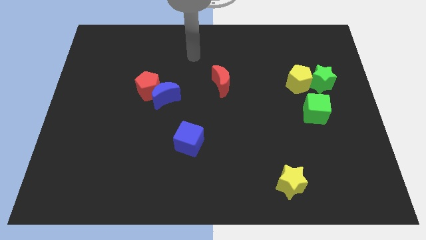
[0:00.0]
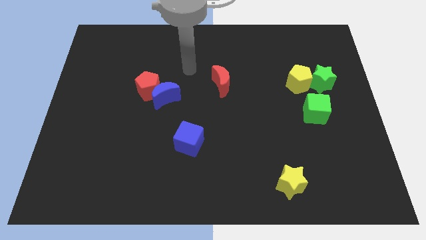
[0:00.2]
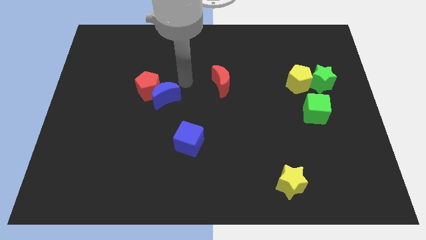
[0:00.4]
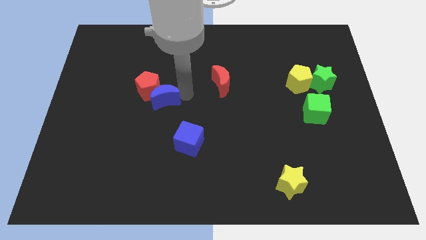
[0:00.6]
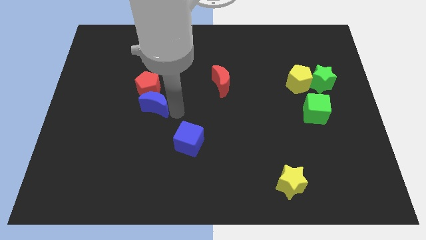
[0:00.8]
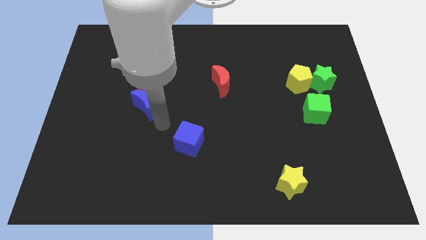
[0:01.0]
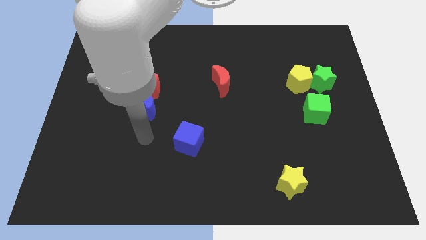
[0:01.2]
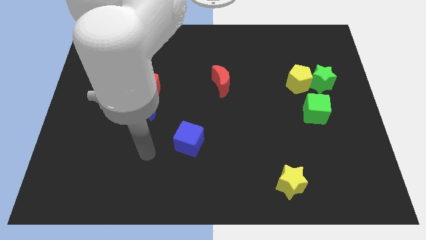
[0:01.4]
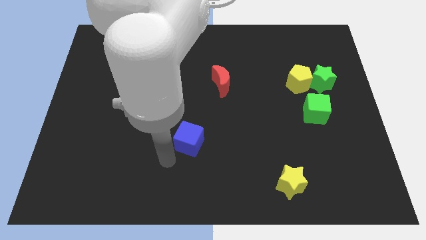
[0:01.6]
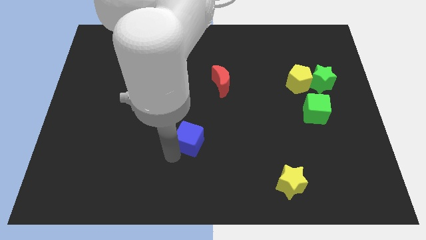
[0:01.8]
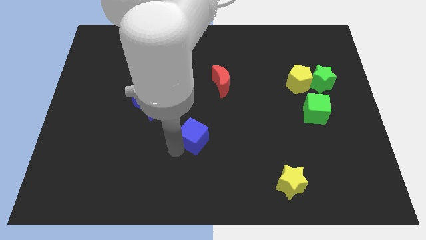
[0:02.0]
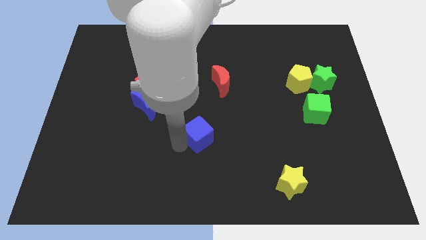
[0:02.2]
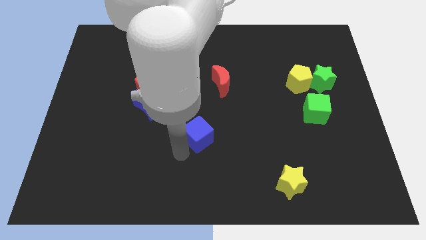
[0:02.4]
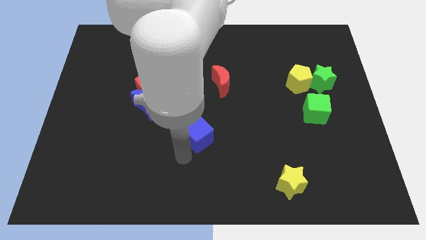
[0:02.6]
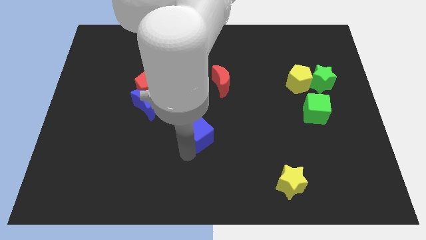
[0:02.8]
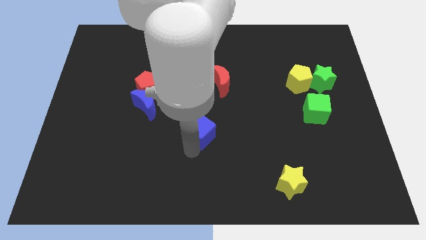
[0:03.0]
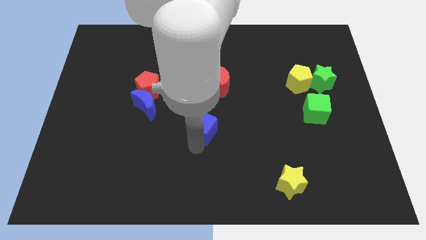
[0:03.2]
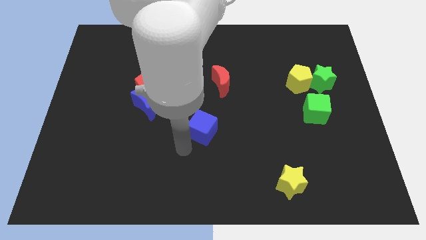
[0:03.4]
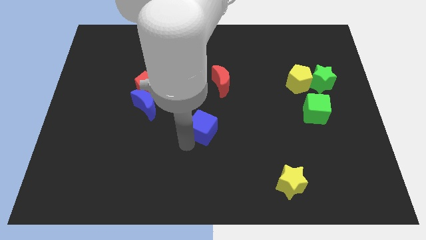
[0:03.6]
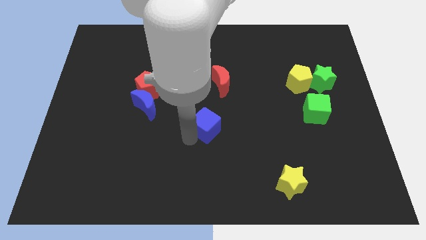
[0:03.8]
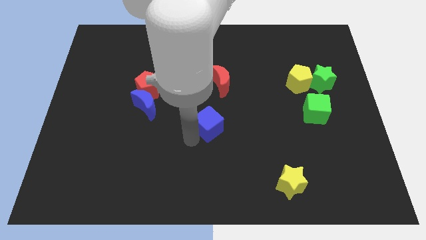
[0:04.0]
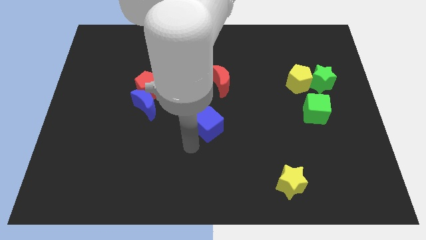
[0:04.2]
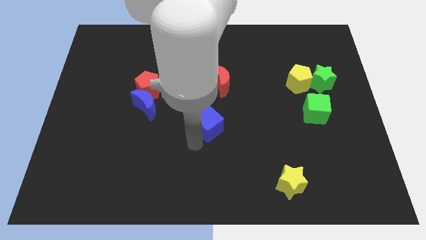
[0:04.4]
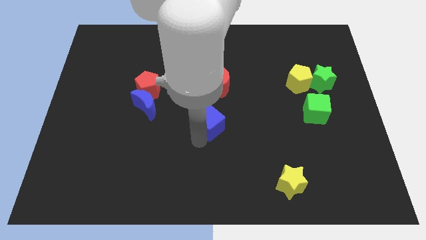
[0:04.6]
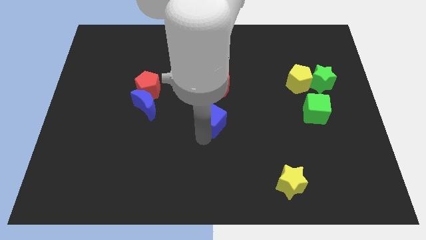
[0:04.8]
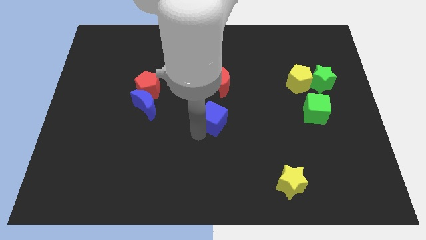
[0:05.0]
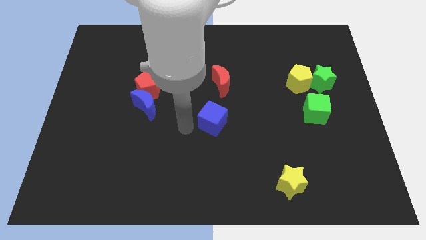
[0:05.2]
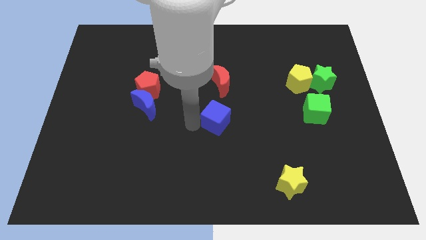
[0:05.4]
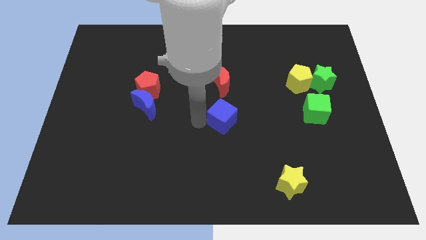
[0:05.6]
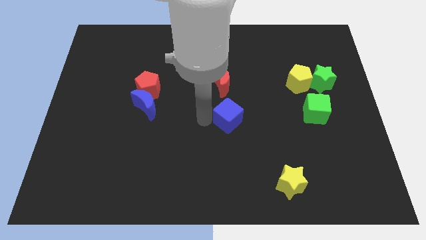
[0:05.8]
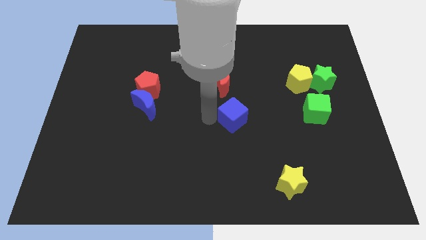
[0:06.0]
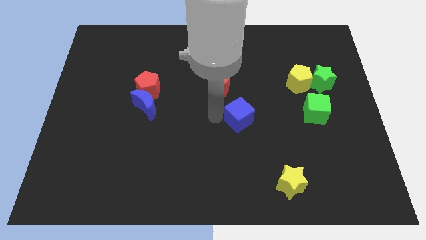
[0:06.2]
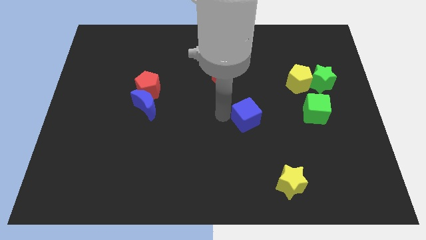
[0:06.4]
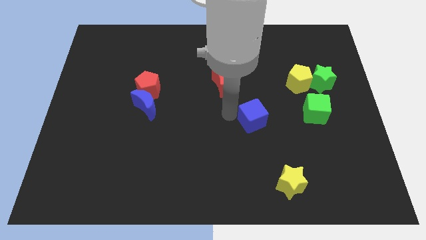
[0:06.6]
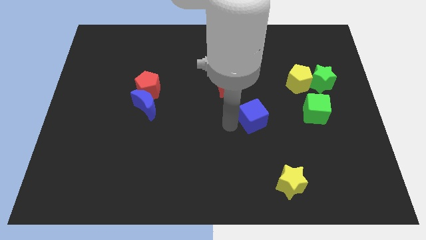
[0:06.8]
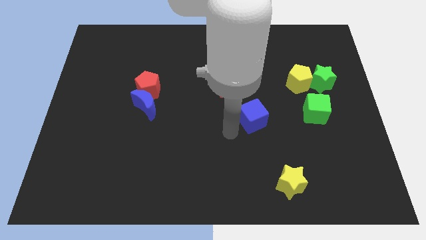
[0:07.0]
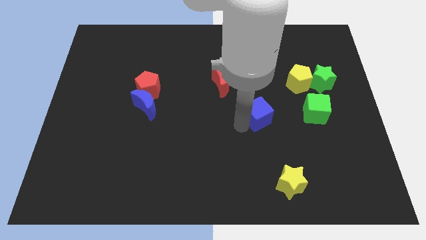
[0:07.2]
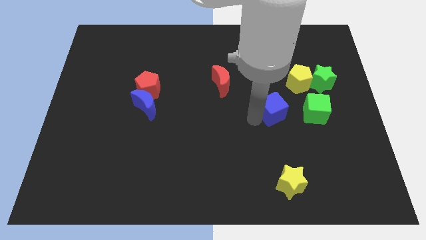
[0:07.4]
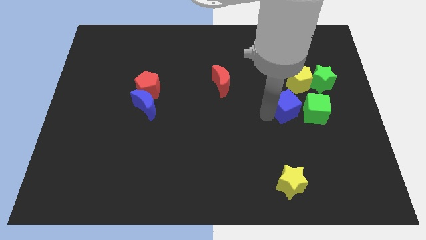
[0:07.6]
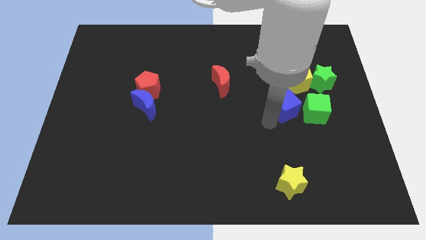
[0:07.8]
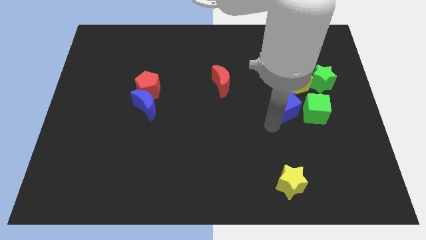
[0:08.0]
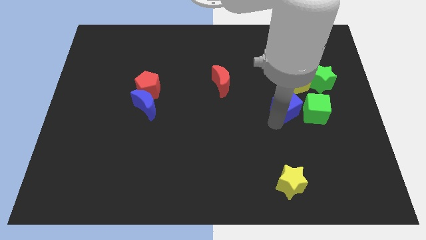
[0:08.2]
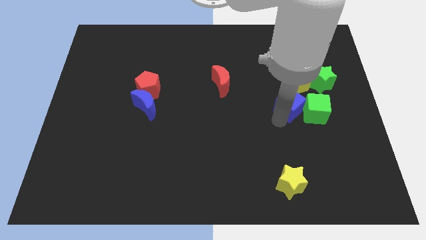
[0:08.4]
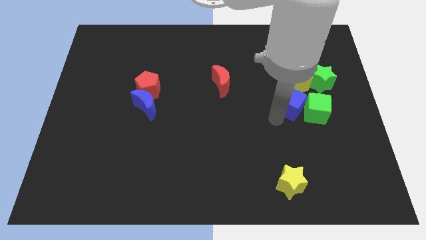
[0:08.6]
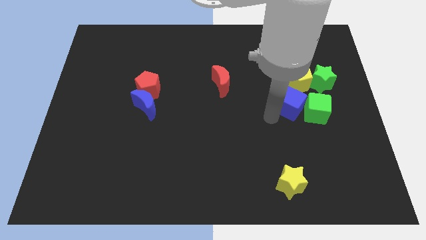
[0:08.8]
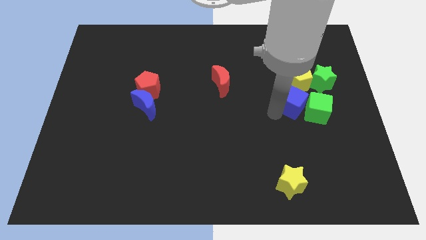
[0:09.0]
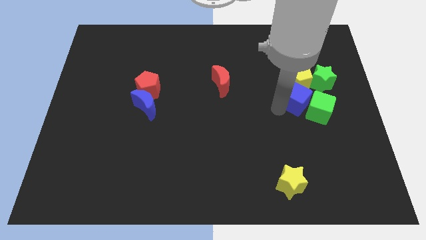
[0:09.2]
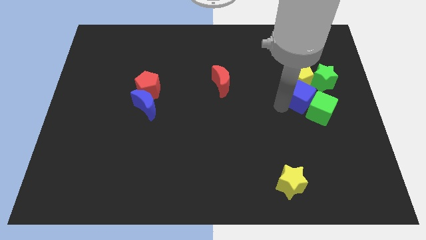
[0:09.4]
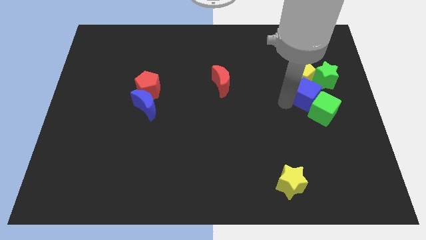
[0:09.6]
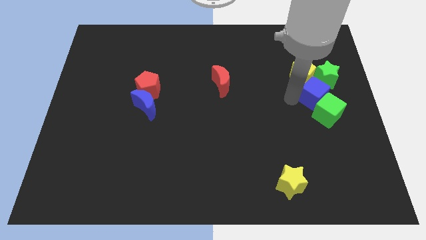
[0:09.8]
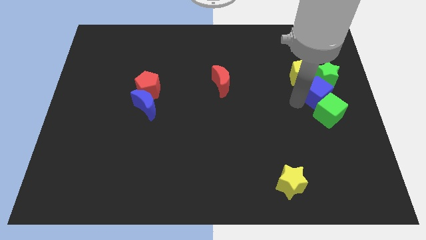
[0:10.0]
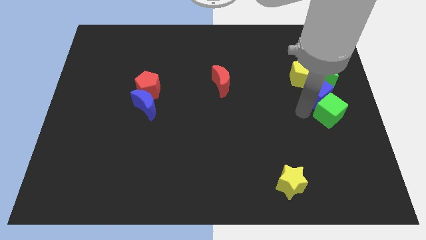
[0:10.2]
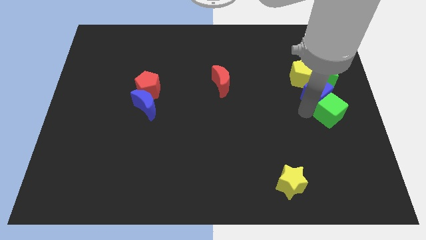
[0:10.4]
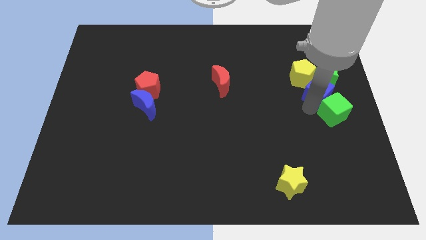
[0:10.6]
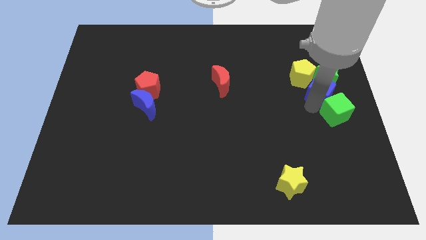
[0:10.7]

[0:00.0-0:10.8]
slide the blue cube to the green star

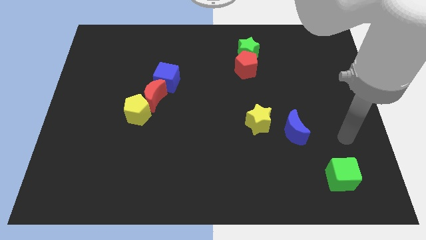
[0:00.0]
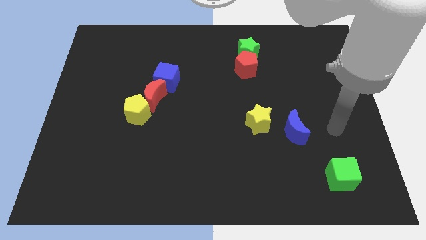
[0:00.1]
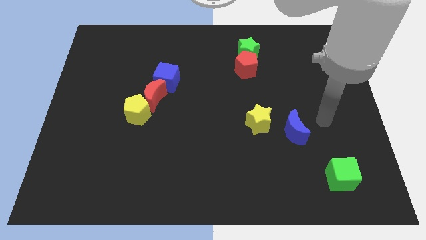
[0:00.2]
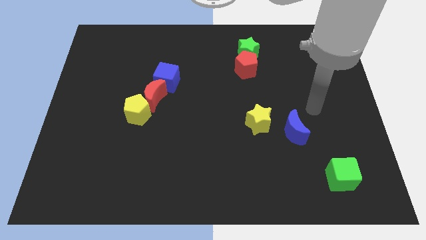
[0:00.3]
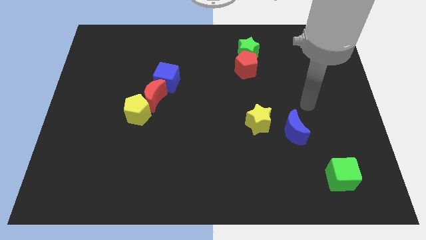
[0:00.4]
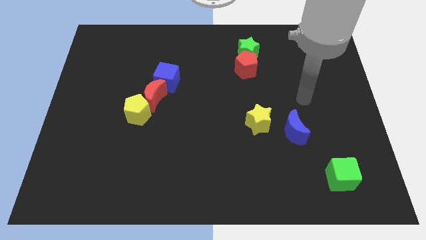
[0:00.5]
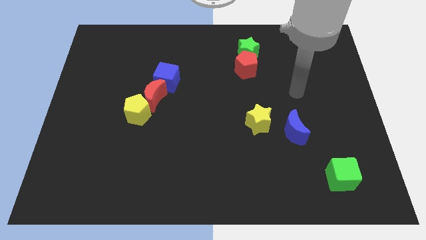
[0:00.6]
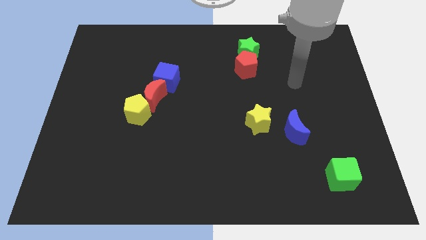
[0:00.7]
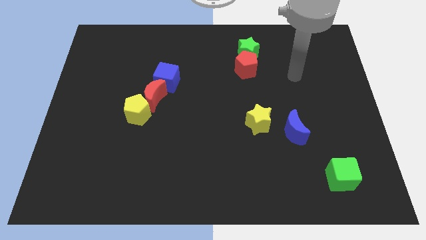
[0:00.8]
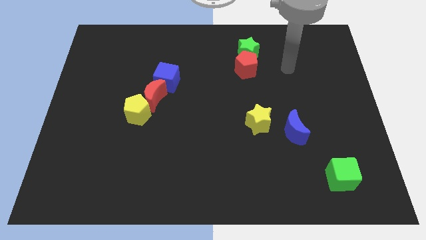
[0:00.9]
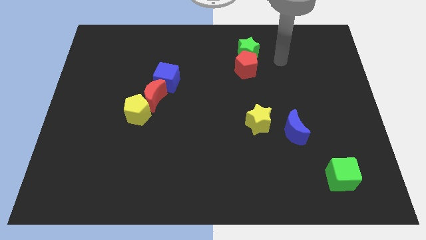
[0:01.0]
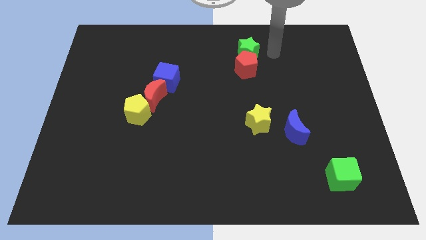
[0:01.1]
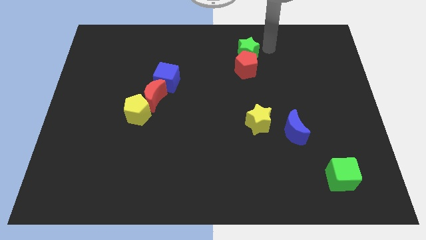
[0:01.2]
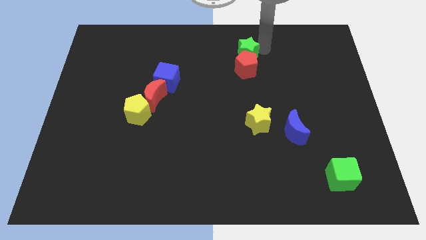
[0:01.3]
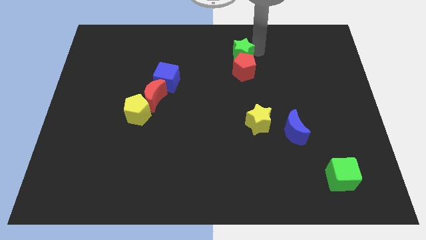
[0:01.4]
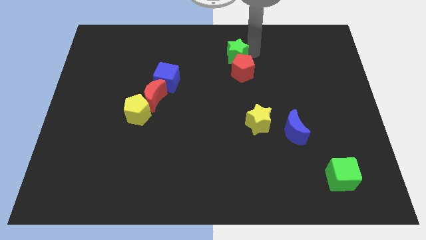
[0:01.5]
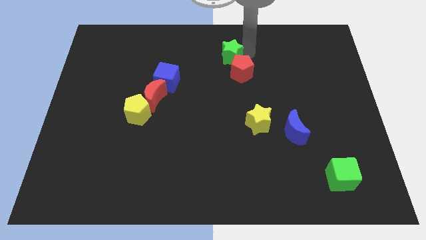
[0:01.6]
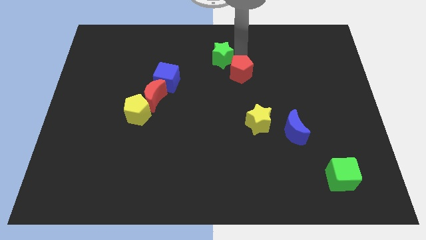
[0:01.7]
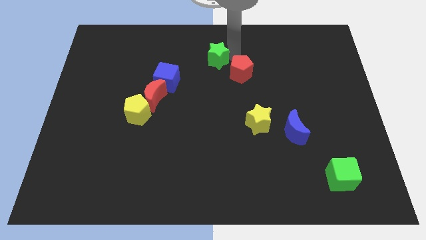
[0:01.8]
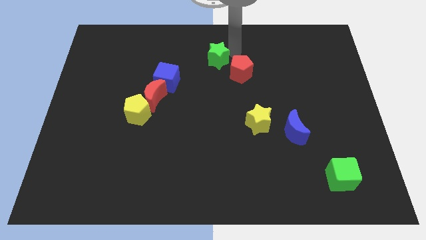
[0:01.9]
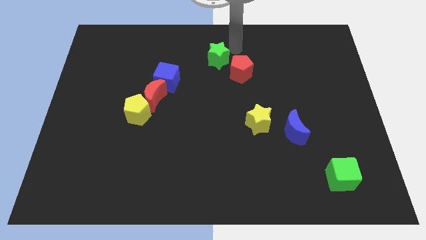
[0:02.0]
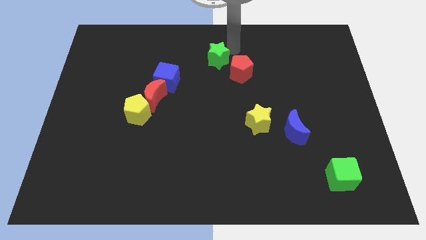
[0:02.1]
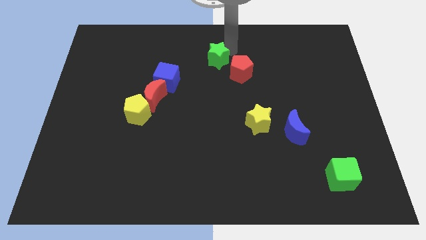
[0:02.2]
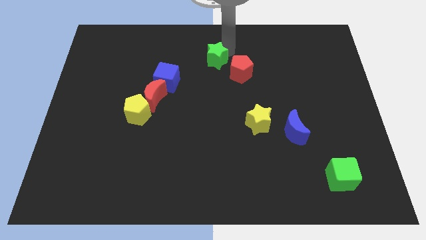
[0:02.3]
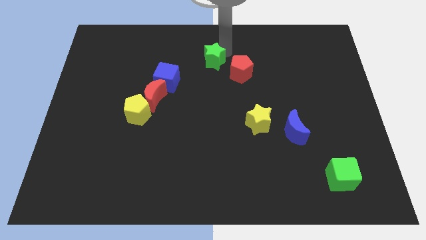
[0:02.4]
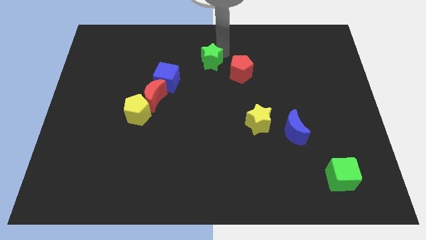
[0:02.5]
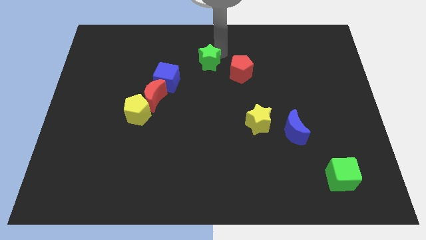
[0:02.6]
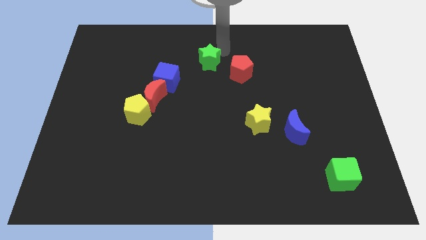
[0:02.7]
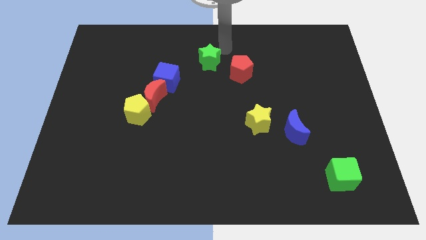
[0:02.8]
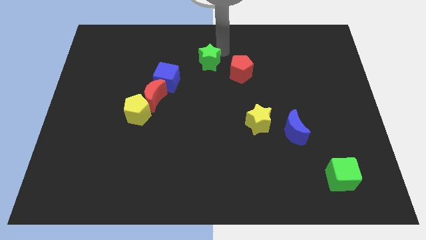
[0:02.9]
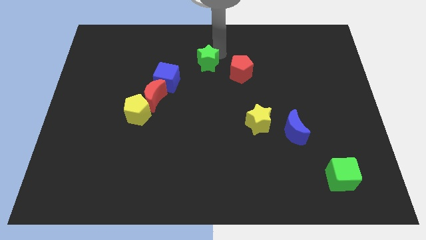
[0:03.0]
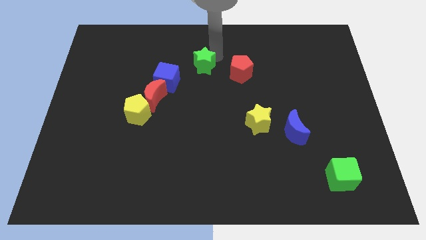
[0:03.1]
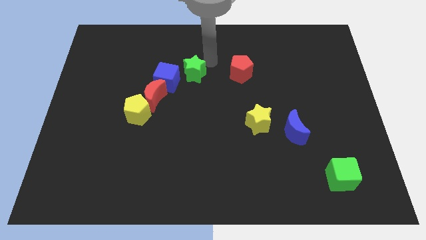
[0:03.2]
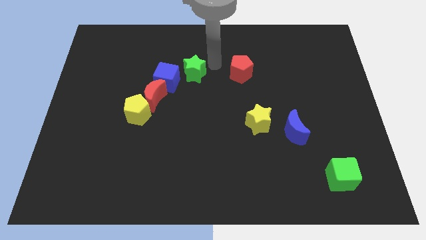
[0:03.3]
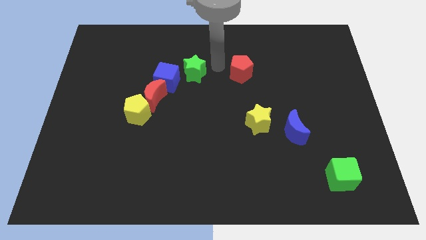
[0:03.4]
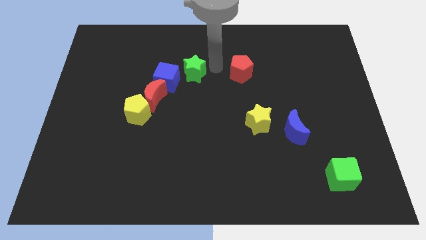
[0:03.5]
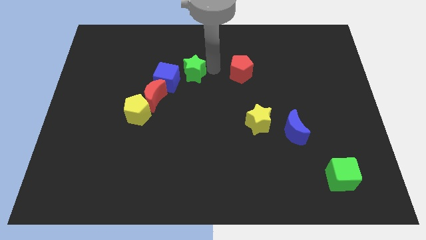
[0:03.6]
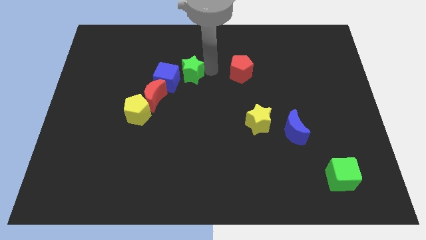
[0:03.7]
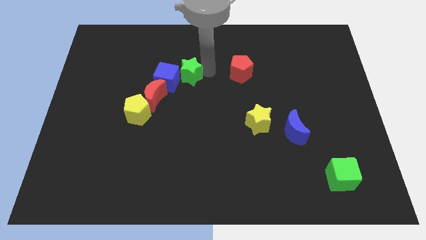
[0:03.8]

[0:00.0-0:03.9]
slide the green star close to the blue cube
